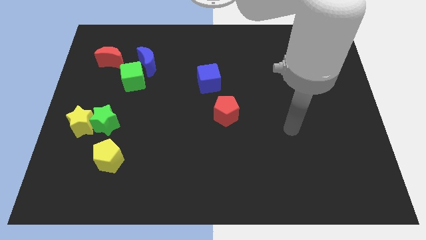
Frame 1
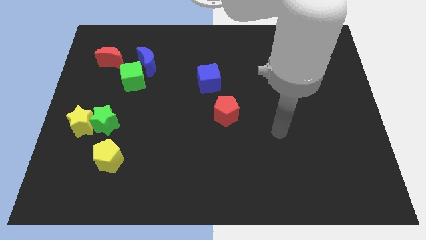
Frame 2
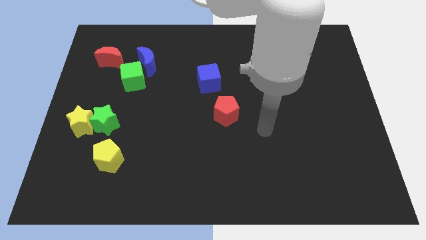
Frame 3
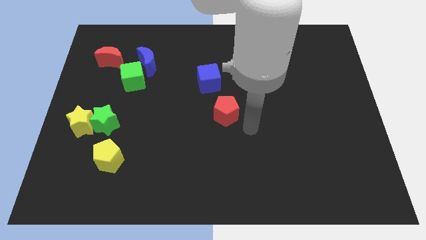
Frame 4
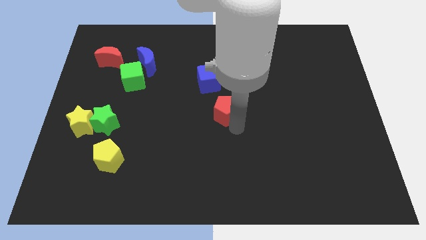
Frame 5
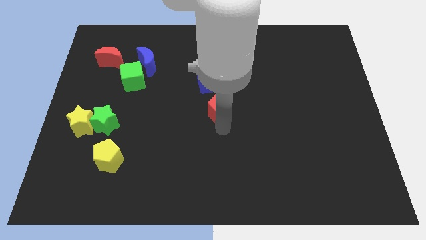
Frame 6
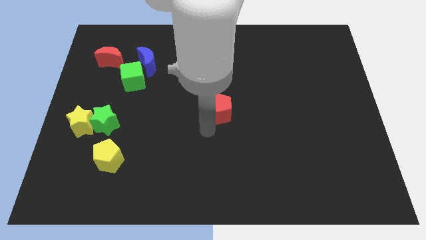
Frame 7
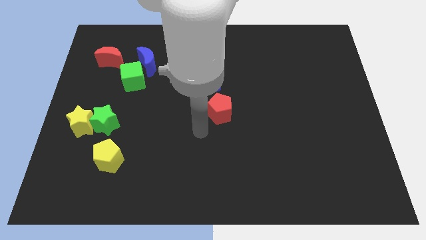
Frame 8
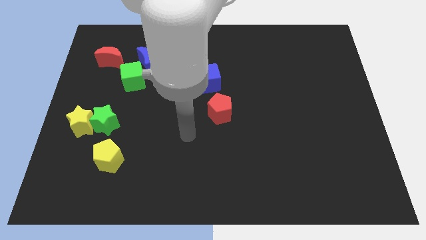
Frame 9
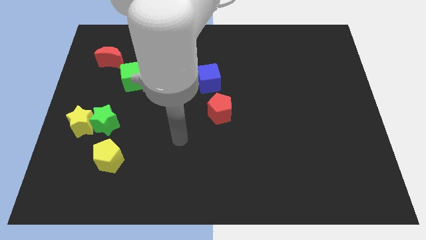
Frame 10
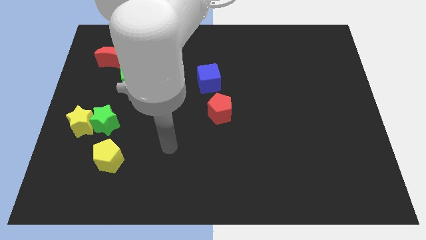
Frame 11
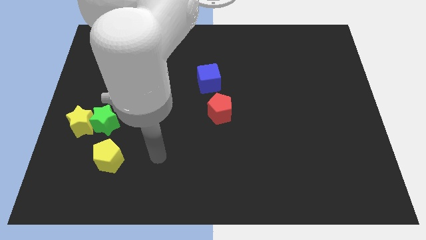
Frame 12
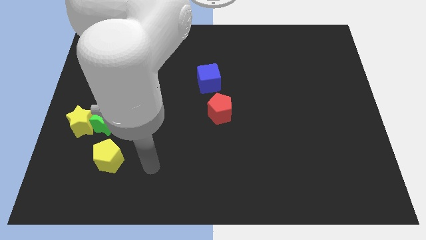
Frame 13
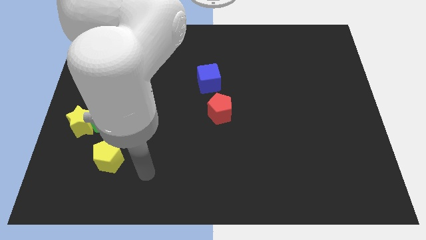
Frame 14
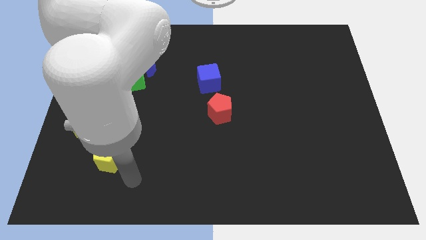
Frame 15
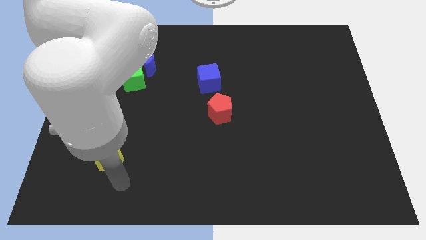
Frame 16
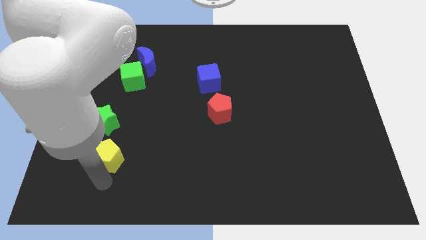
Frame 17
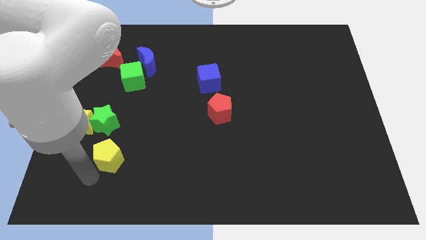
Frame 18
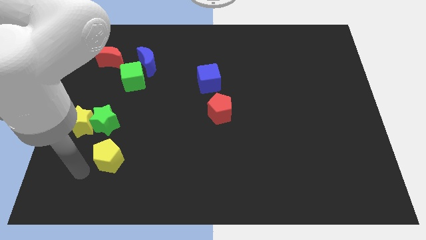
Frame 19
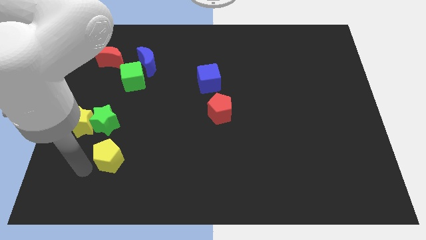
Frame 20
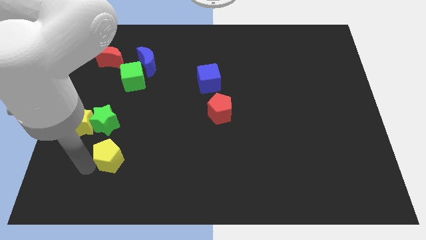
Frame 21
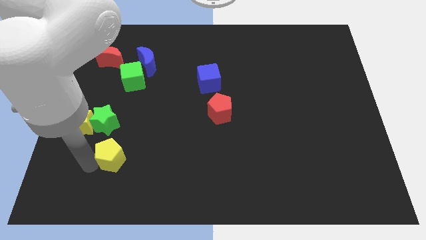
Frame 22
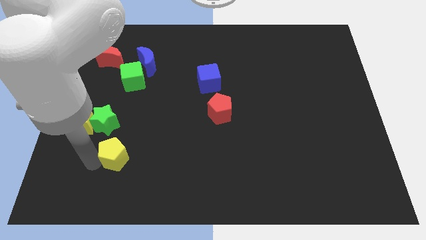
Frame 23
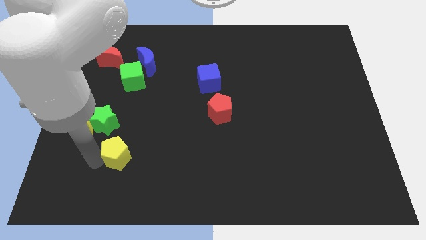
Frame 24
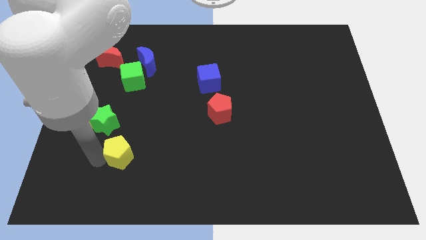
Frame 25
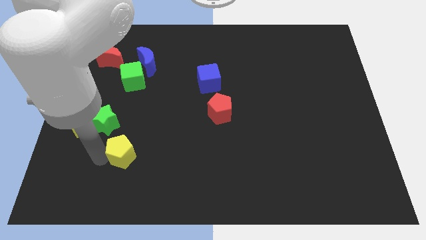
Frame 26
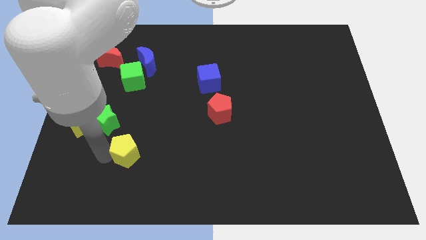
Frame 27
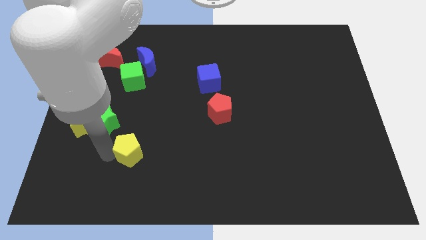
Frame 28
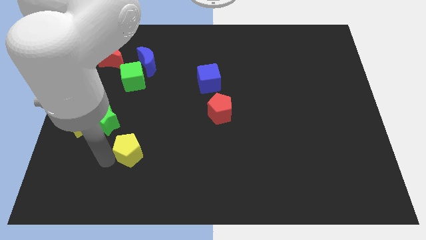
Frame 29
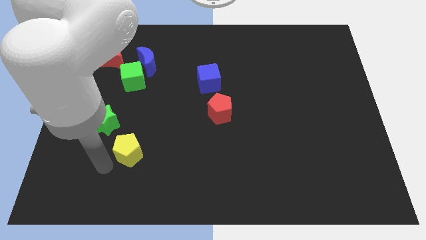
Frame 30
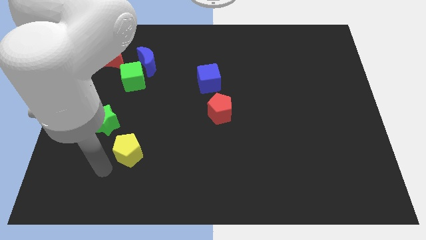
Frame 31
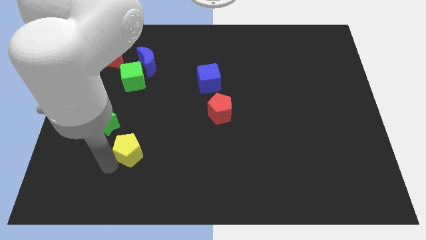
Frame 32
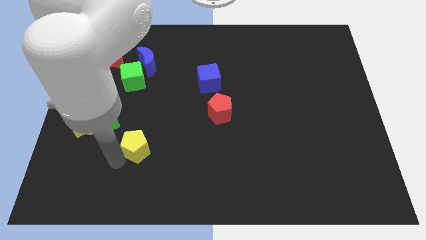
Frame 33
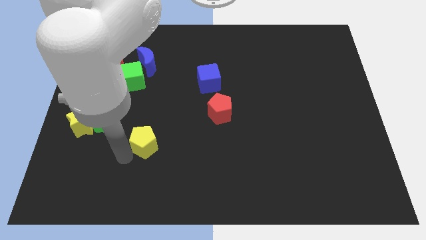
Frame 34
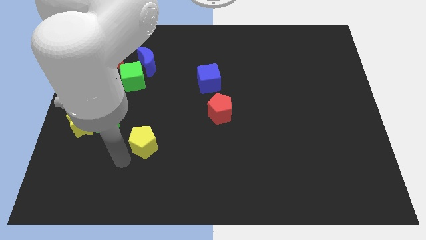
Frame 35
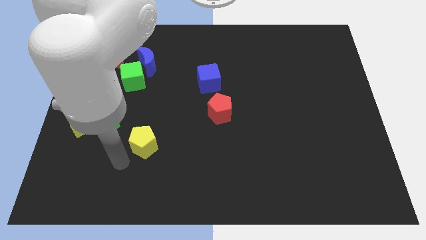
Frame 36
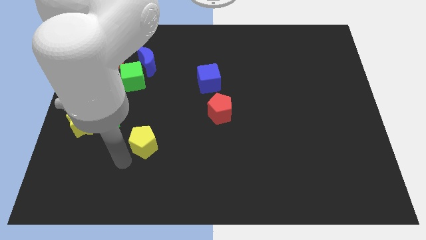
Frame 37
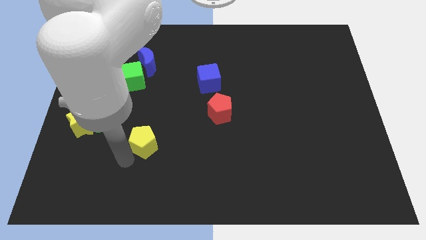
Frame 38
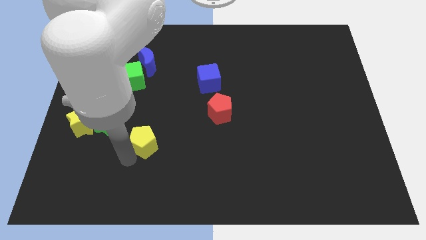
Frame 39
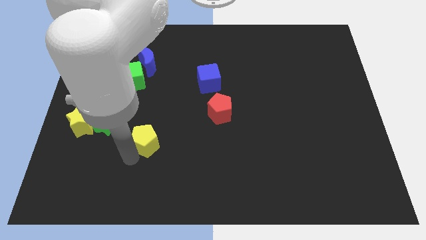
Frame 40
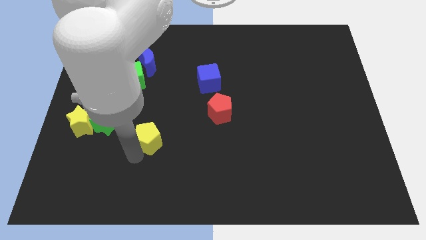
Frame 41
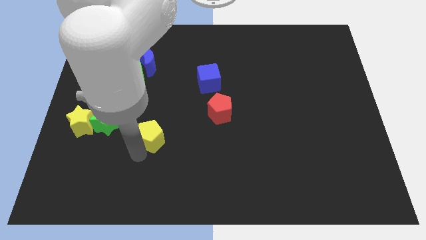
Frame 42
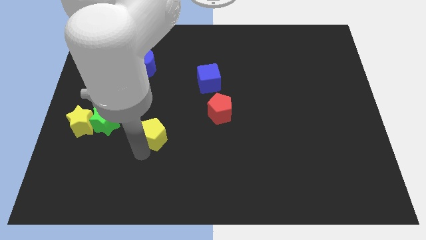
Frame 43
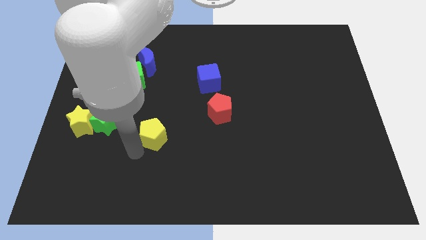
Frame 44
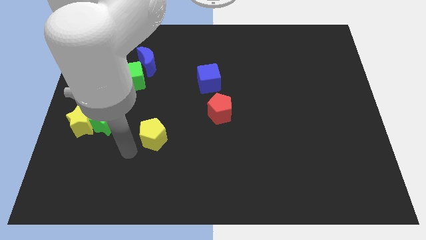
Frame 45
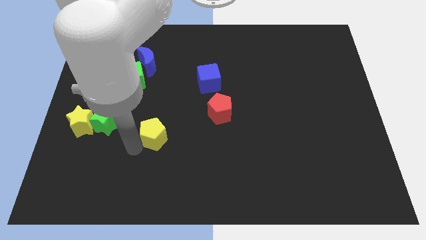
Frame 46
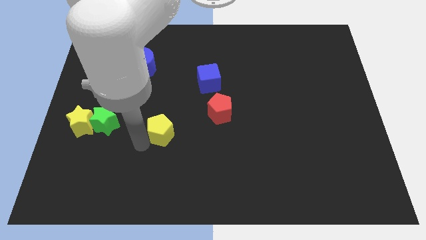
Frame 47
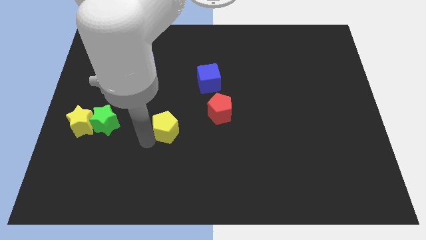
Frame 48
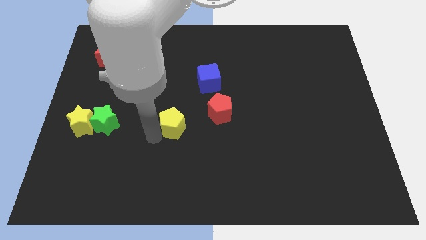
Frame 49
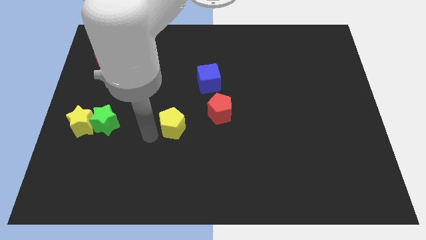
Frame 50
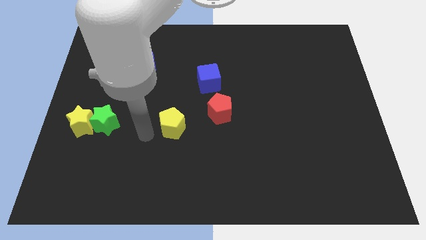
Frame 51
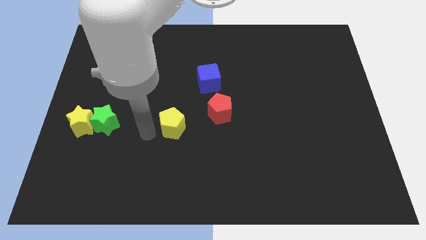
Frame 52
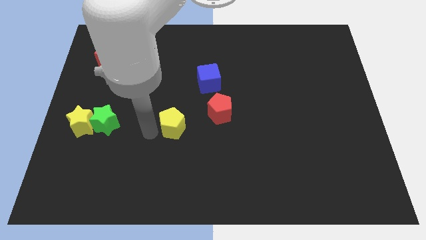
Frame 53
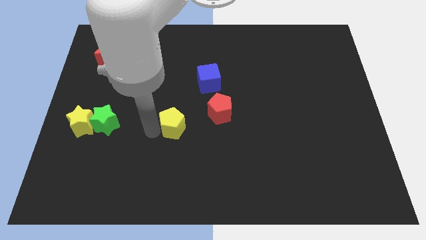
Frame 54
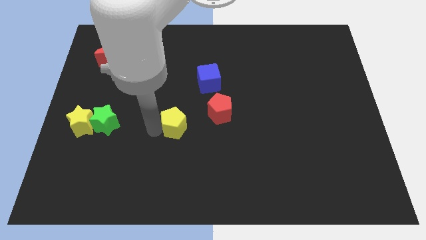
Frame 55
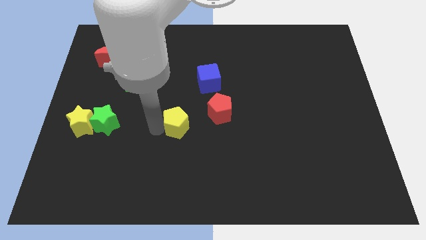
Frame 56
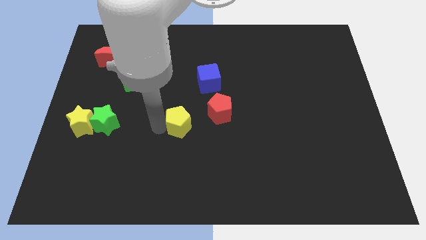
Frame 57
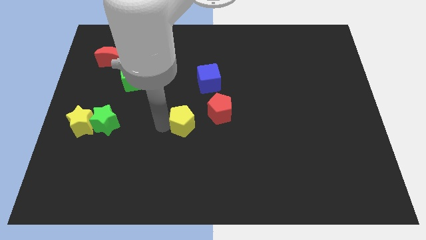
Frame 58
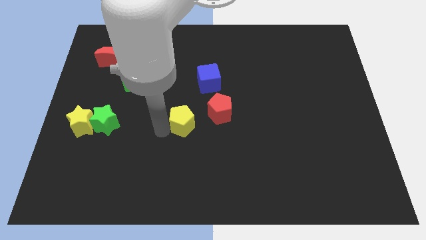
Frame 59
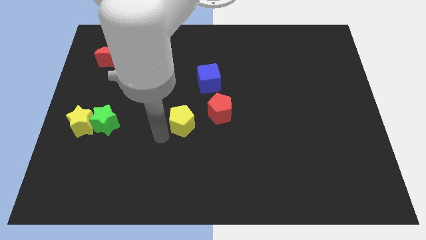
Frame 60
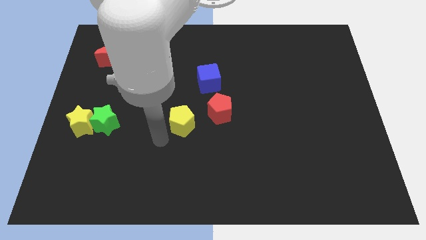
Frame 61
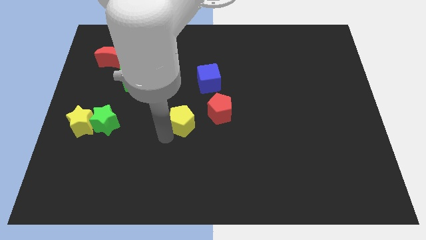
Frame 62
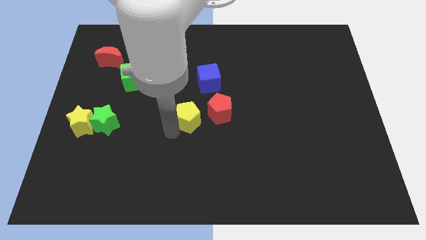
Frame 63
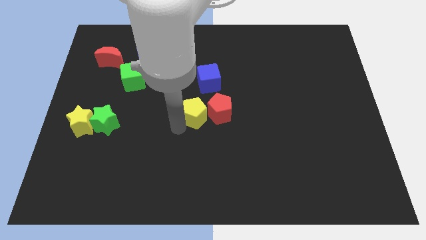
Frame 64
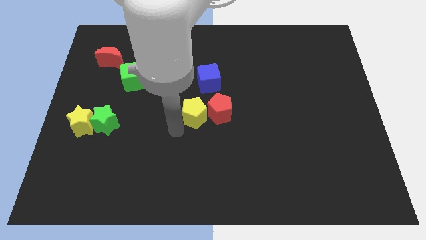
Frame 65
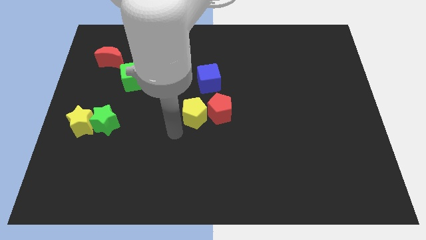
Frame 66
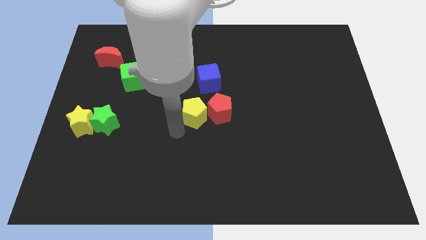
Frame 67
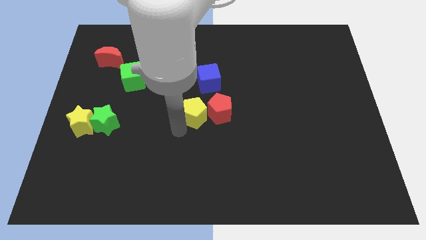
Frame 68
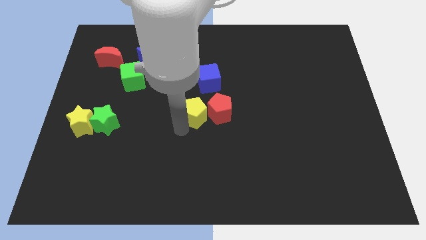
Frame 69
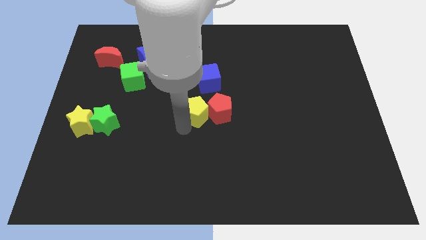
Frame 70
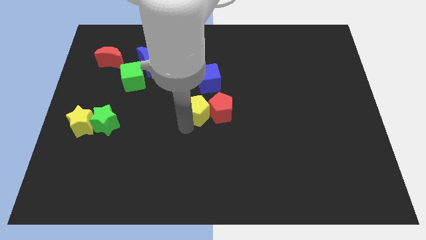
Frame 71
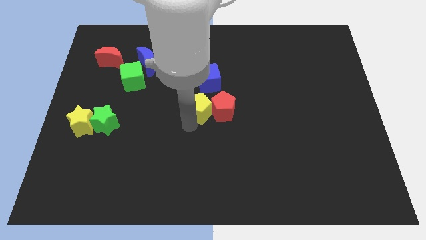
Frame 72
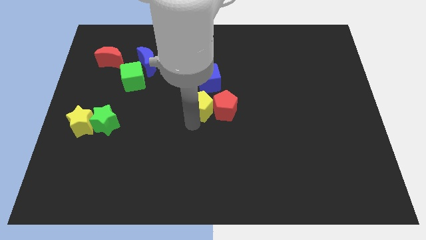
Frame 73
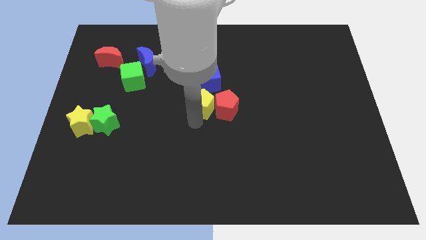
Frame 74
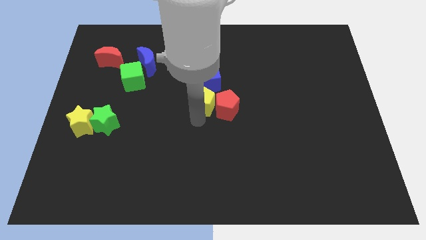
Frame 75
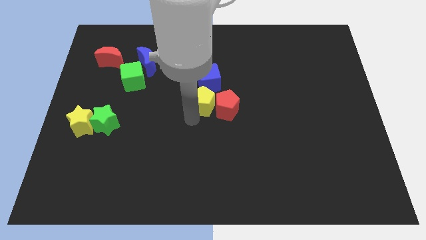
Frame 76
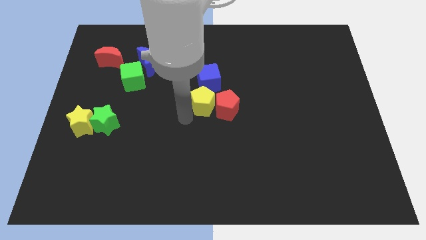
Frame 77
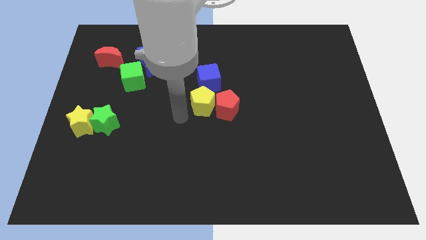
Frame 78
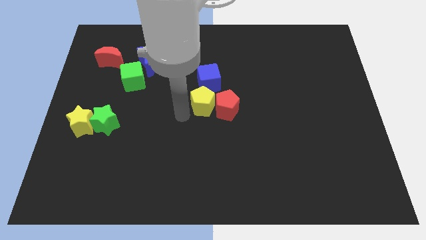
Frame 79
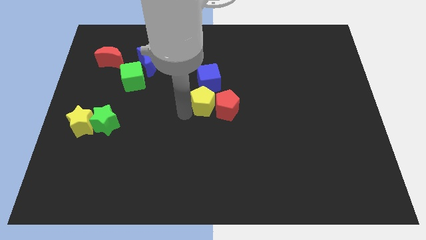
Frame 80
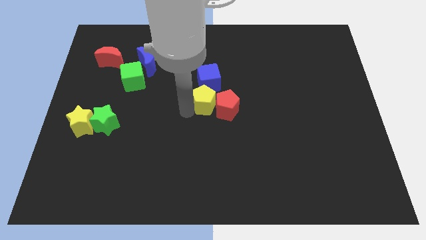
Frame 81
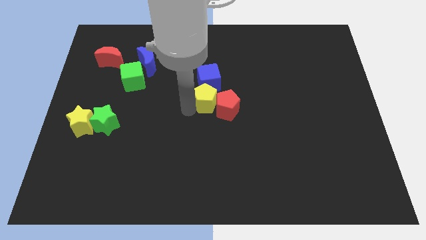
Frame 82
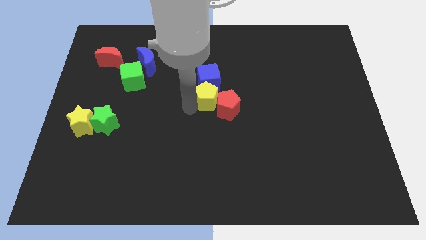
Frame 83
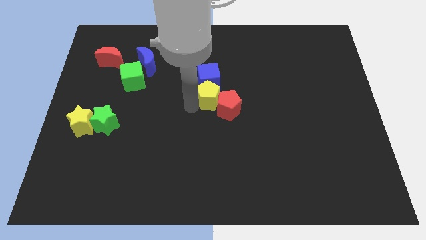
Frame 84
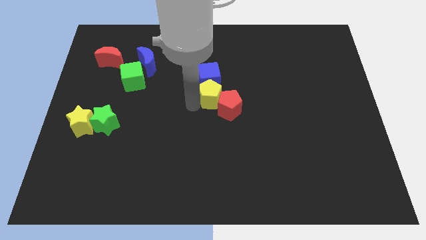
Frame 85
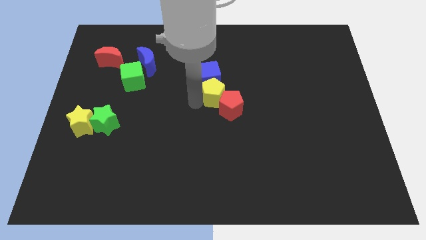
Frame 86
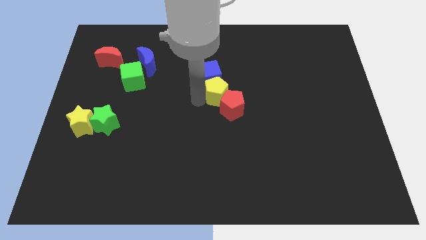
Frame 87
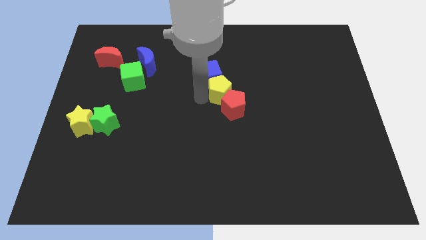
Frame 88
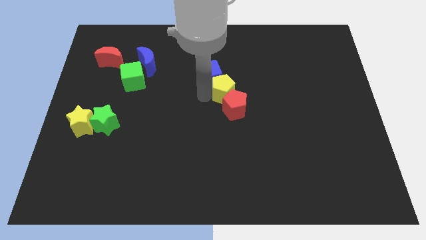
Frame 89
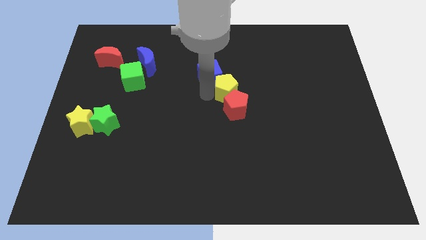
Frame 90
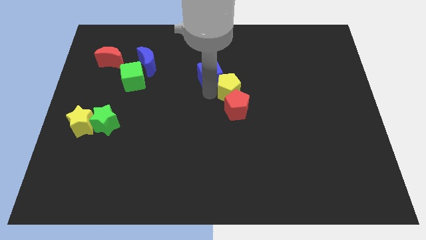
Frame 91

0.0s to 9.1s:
put the yellow pentagon to the top right side of the red pentagon
